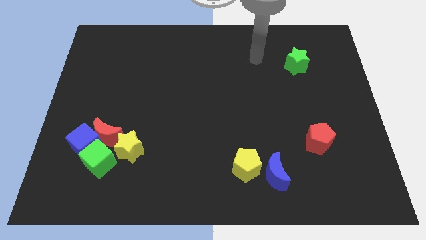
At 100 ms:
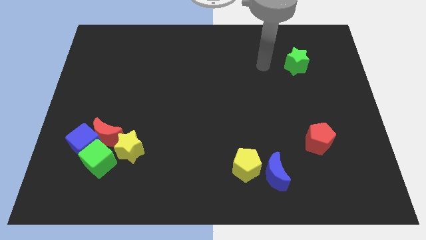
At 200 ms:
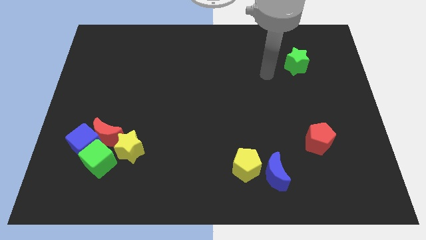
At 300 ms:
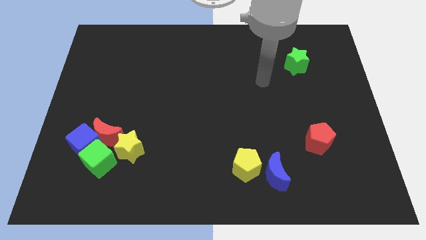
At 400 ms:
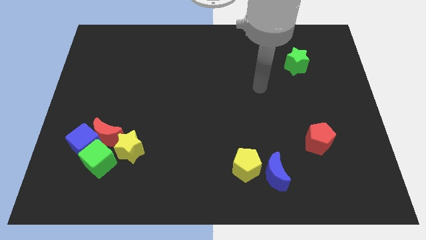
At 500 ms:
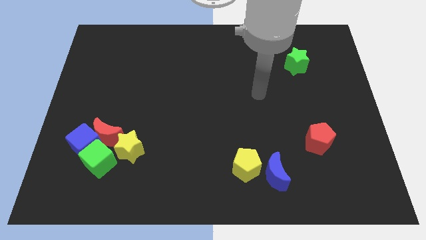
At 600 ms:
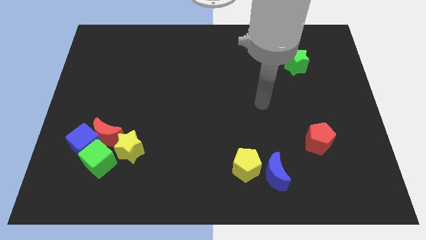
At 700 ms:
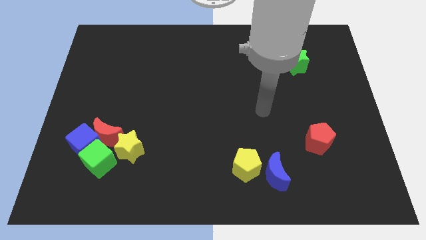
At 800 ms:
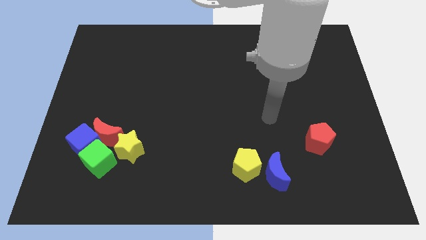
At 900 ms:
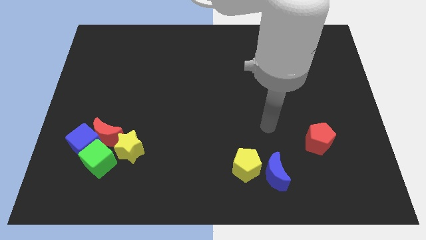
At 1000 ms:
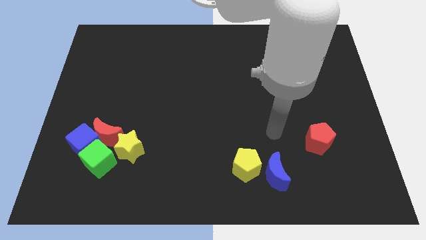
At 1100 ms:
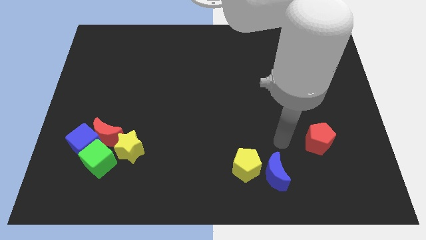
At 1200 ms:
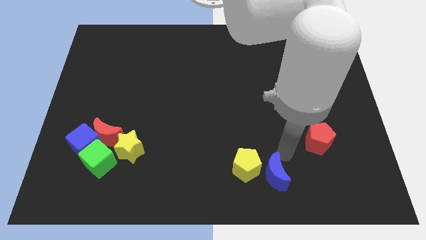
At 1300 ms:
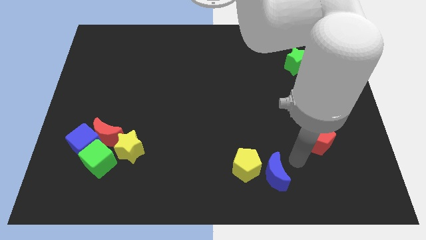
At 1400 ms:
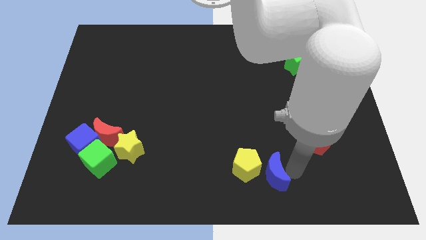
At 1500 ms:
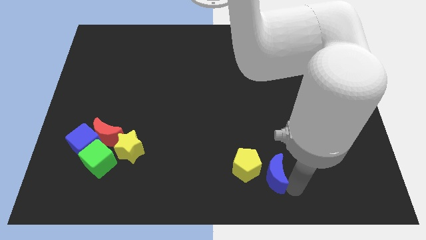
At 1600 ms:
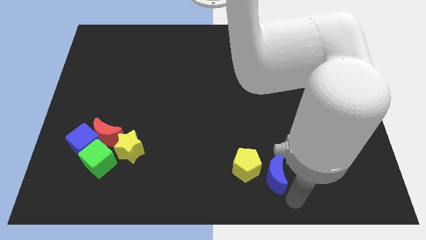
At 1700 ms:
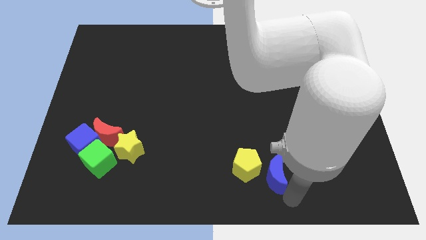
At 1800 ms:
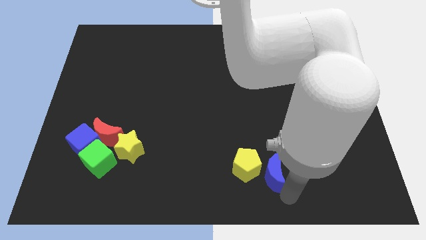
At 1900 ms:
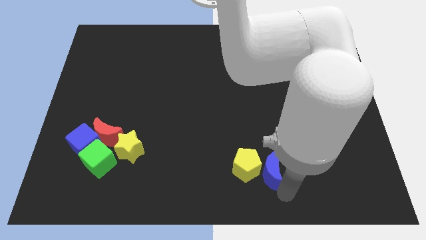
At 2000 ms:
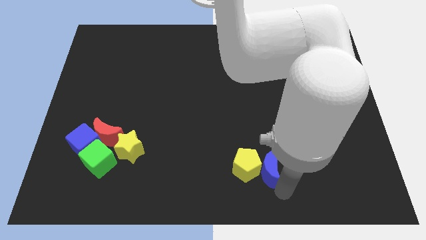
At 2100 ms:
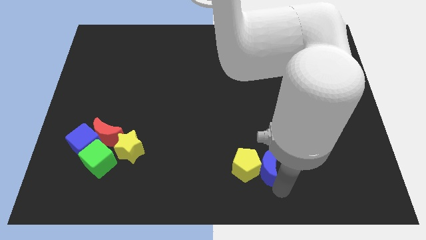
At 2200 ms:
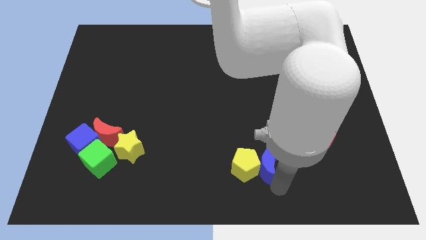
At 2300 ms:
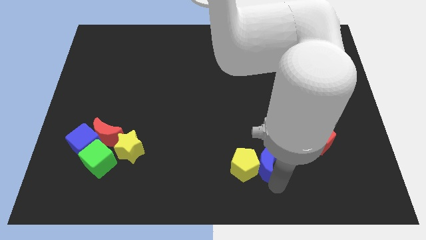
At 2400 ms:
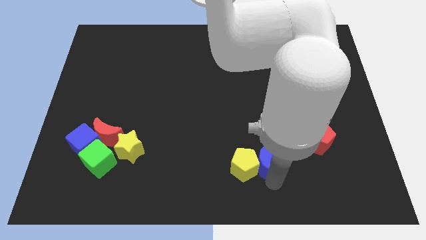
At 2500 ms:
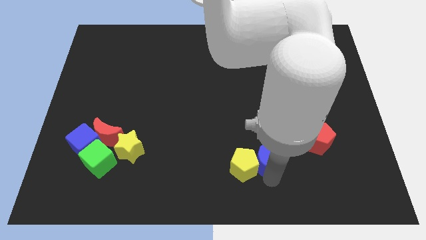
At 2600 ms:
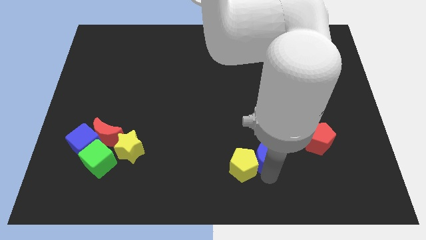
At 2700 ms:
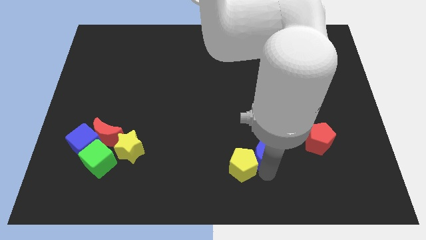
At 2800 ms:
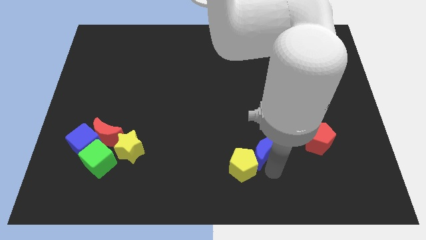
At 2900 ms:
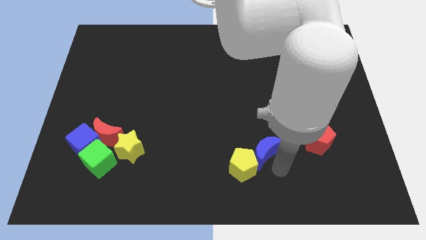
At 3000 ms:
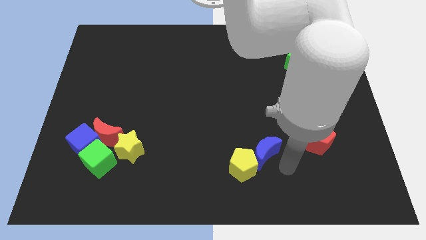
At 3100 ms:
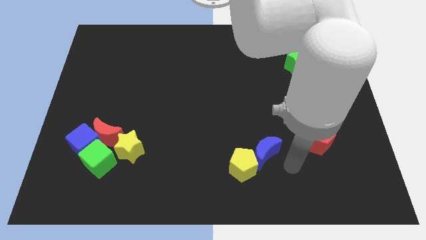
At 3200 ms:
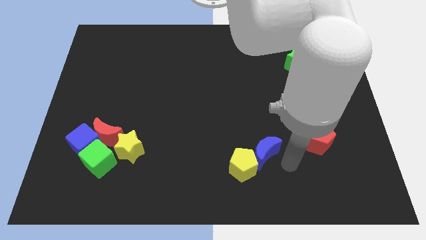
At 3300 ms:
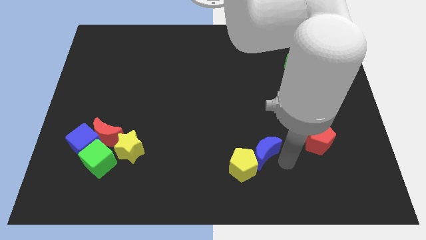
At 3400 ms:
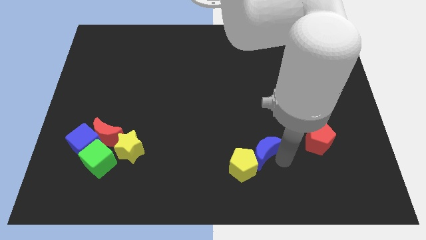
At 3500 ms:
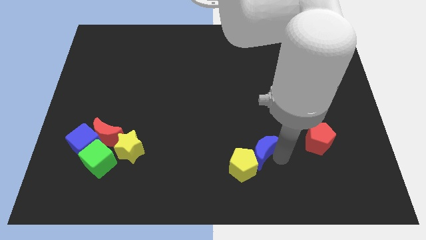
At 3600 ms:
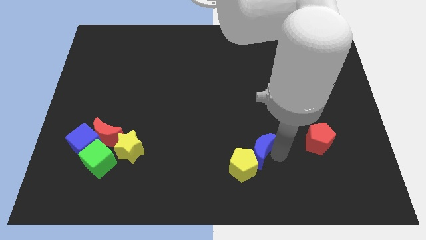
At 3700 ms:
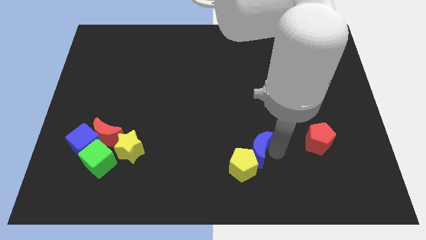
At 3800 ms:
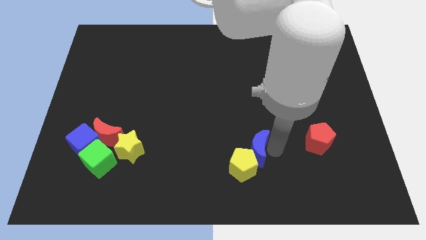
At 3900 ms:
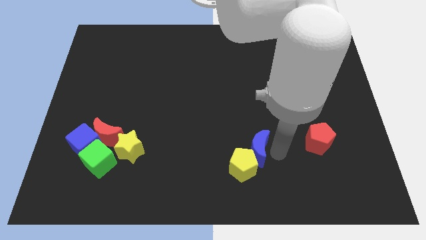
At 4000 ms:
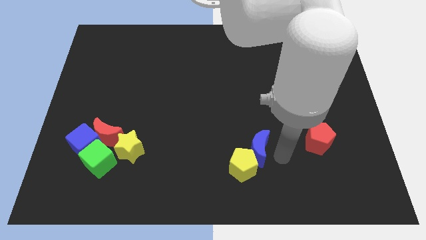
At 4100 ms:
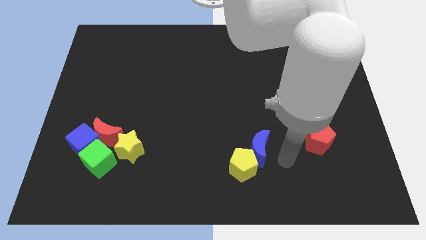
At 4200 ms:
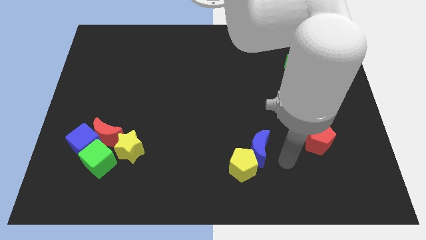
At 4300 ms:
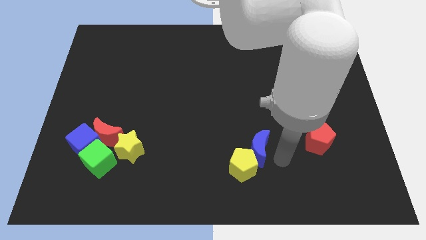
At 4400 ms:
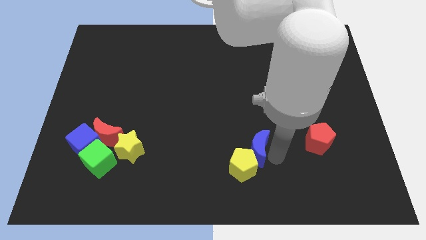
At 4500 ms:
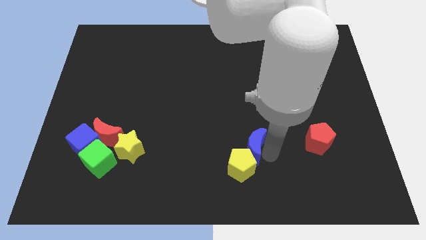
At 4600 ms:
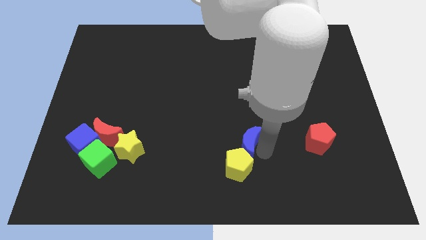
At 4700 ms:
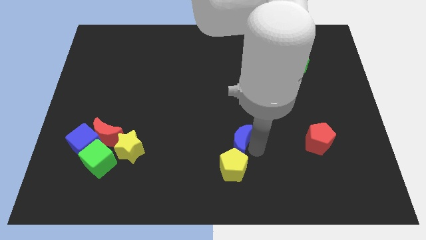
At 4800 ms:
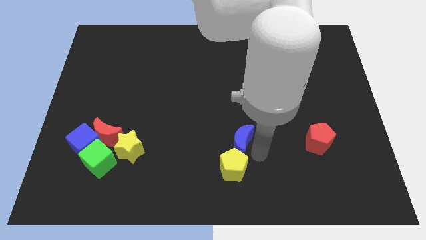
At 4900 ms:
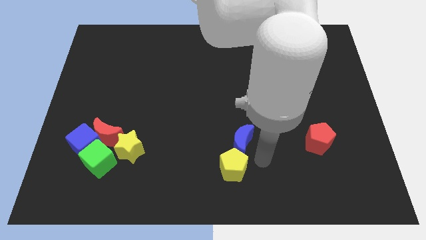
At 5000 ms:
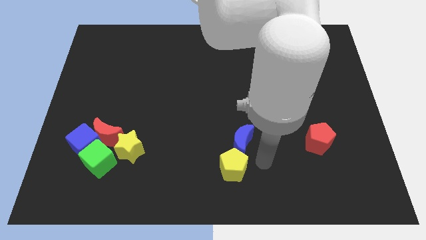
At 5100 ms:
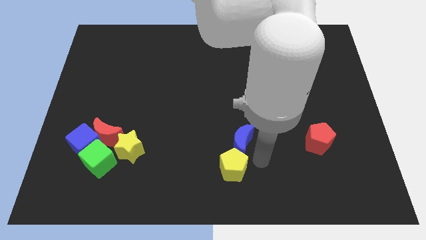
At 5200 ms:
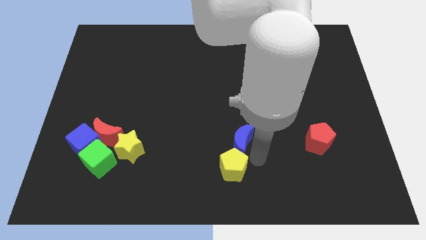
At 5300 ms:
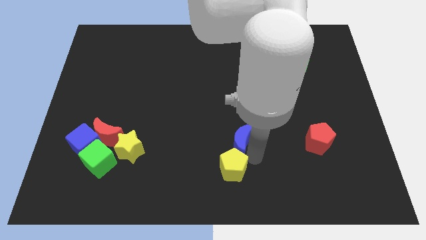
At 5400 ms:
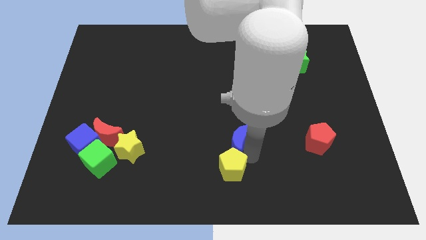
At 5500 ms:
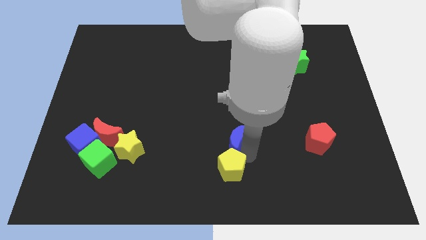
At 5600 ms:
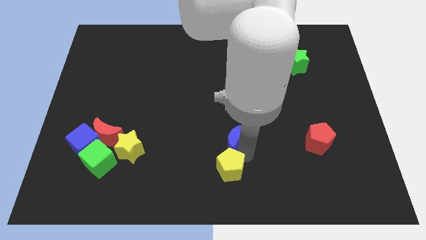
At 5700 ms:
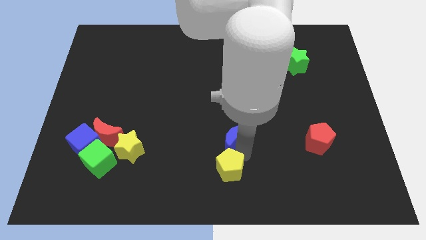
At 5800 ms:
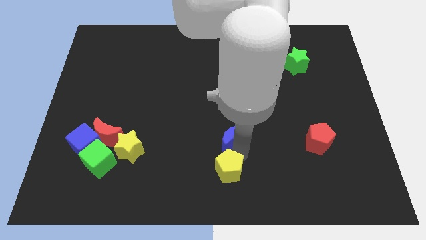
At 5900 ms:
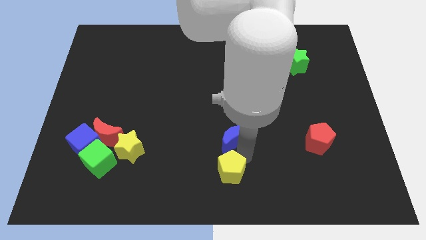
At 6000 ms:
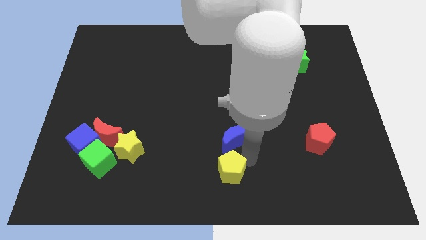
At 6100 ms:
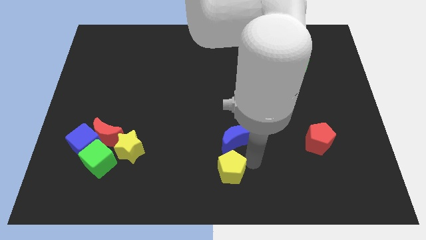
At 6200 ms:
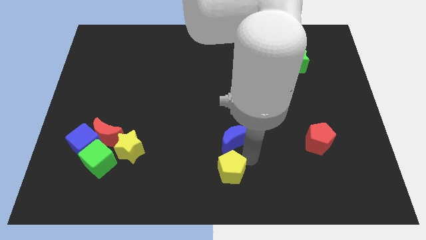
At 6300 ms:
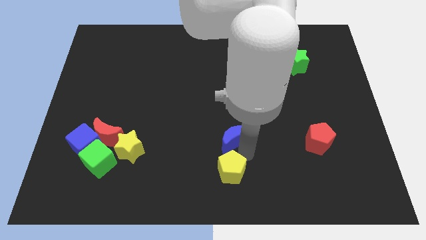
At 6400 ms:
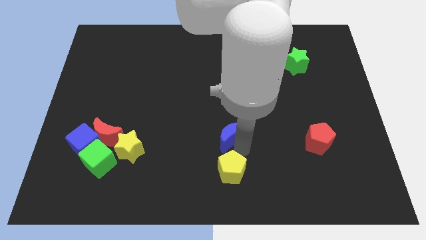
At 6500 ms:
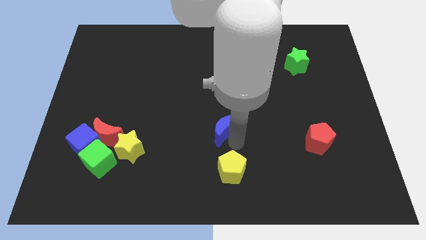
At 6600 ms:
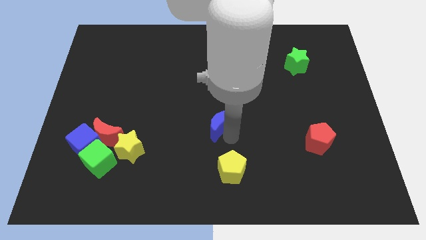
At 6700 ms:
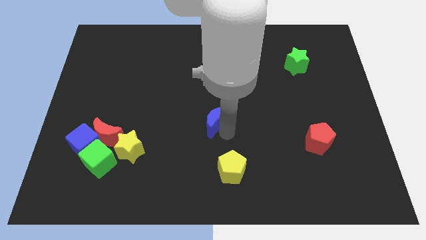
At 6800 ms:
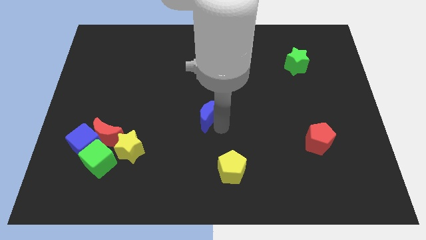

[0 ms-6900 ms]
push the blue moon up and to the left

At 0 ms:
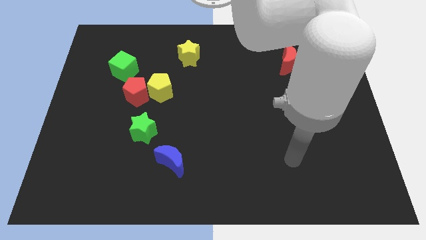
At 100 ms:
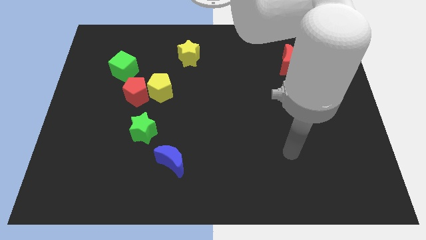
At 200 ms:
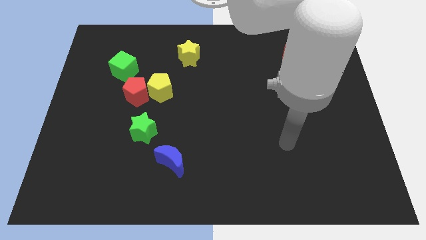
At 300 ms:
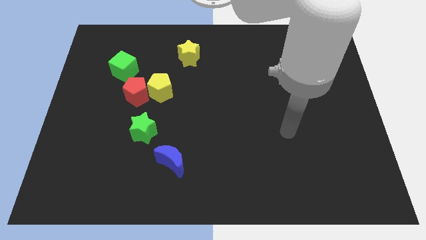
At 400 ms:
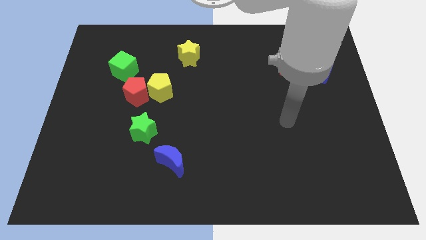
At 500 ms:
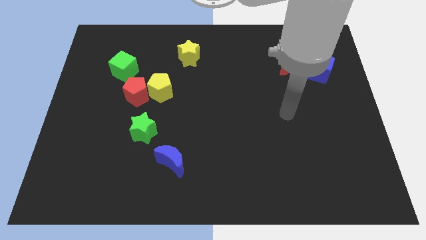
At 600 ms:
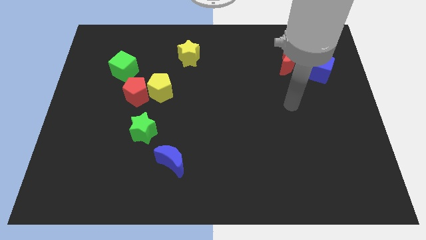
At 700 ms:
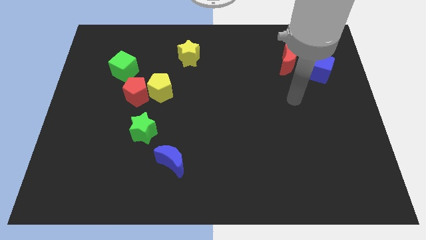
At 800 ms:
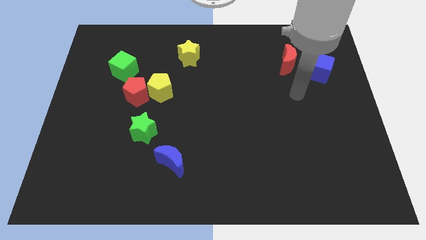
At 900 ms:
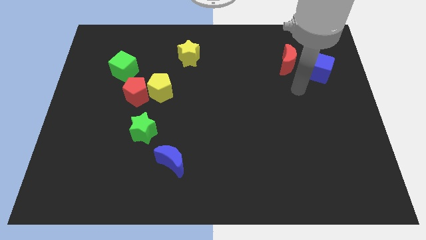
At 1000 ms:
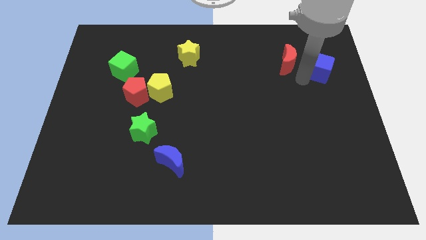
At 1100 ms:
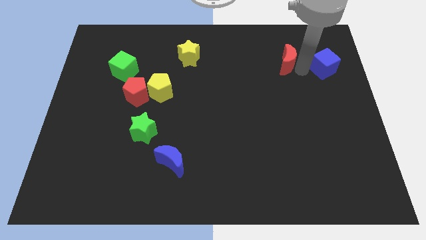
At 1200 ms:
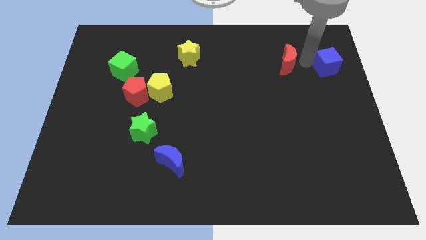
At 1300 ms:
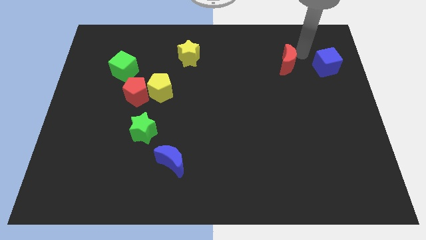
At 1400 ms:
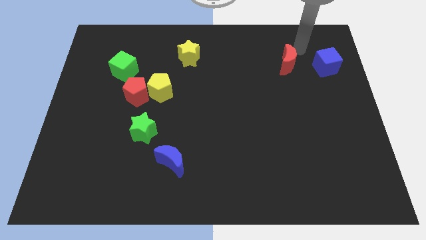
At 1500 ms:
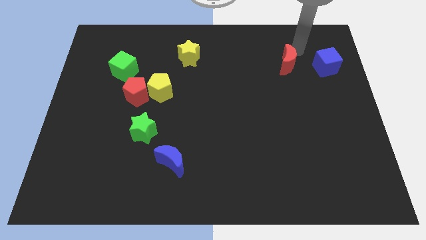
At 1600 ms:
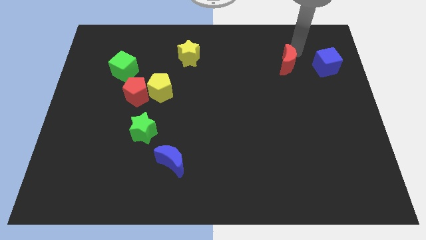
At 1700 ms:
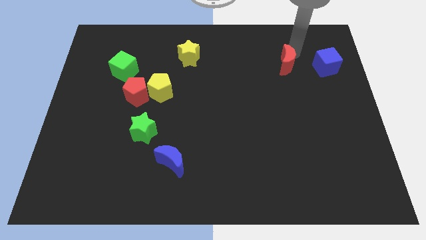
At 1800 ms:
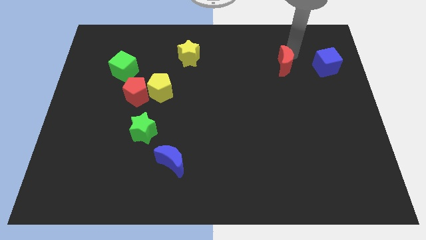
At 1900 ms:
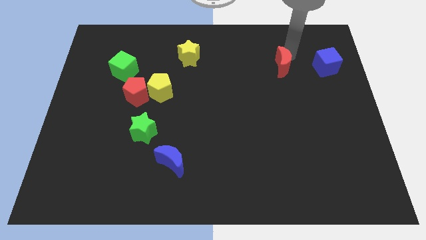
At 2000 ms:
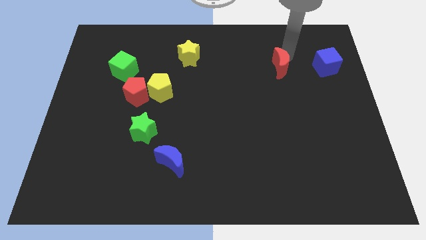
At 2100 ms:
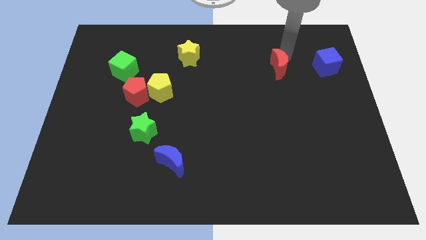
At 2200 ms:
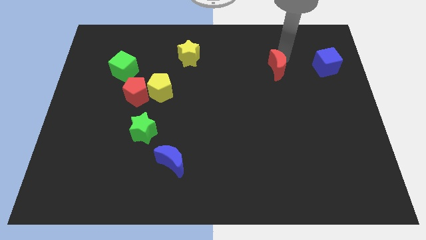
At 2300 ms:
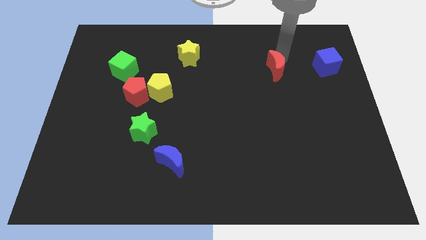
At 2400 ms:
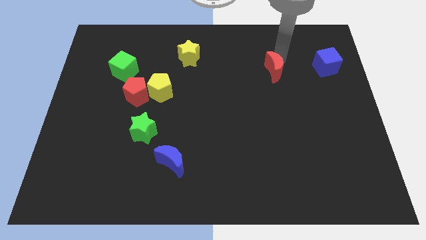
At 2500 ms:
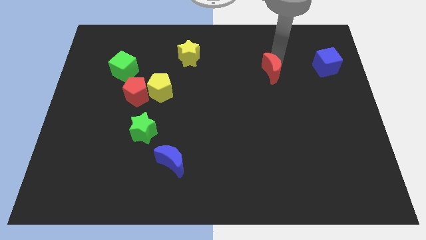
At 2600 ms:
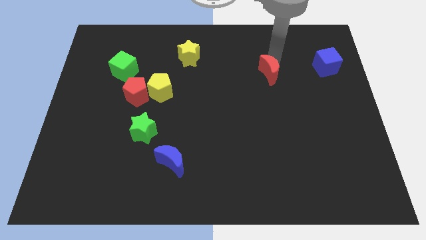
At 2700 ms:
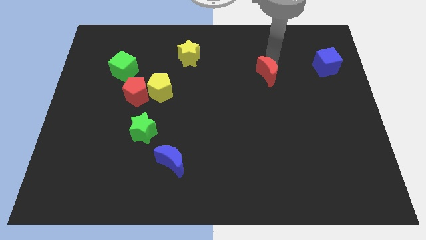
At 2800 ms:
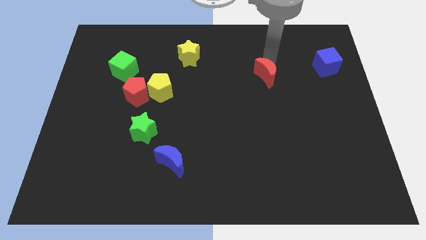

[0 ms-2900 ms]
move the red moon down and then left a bit
